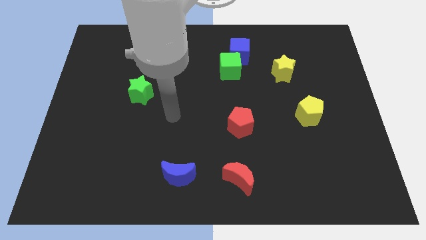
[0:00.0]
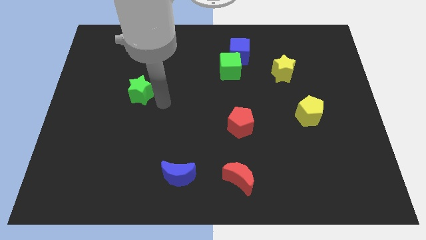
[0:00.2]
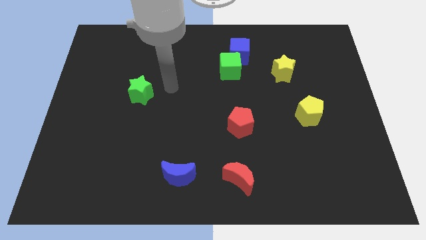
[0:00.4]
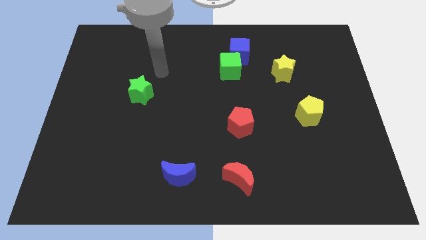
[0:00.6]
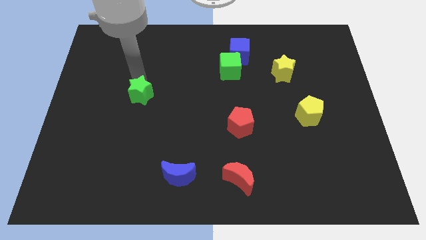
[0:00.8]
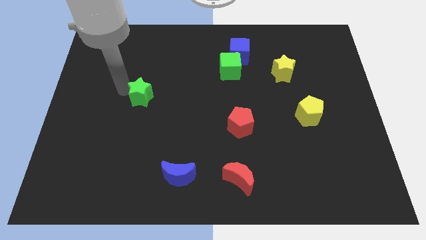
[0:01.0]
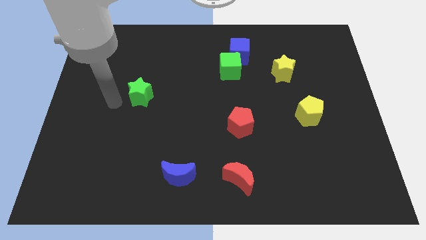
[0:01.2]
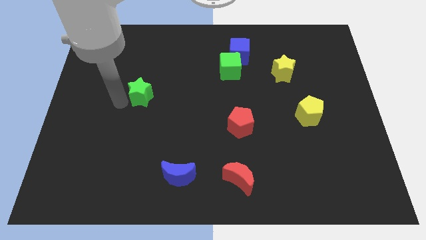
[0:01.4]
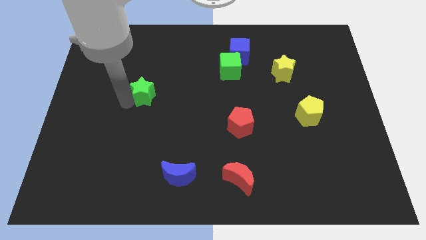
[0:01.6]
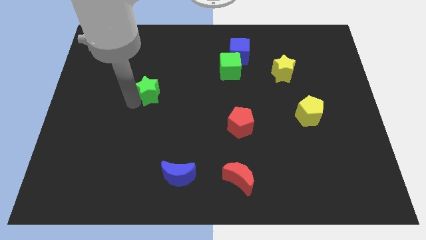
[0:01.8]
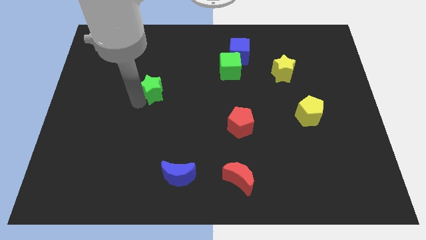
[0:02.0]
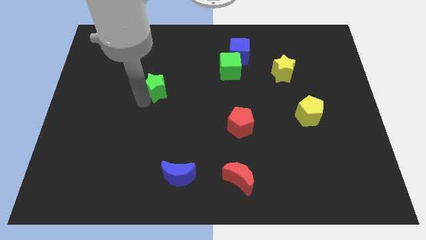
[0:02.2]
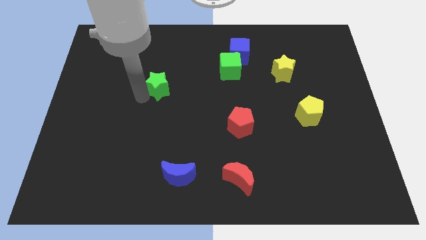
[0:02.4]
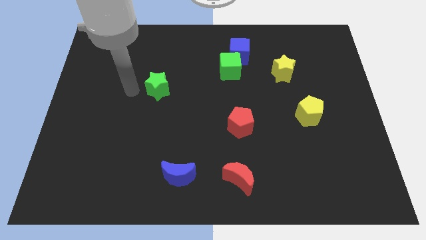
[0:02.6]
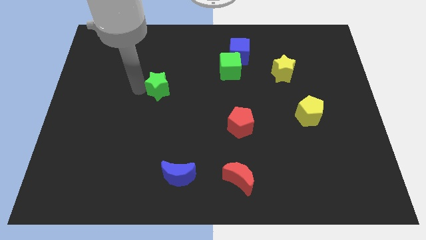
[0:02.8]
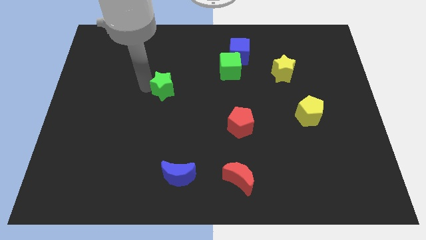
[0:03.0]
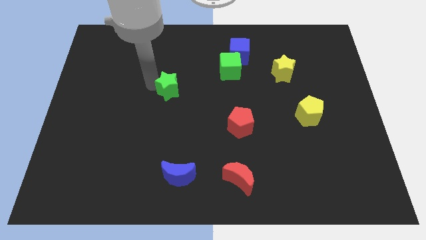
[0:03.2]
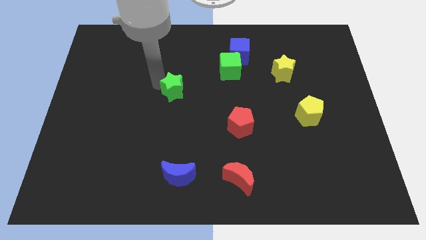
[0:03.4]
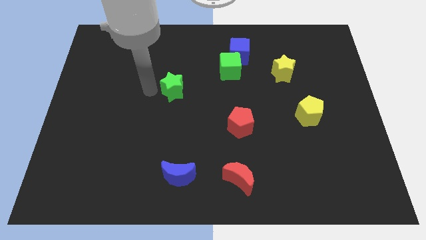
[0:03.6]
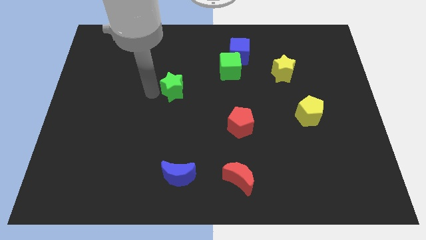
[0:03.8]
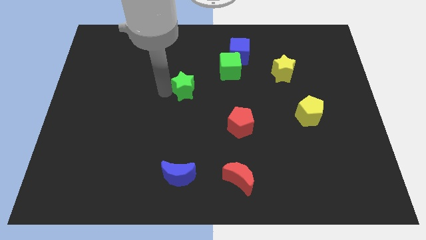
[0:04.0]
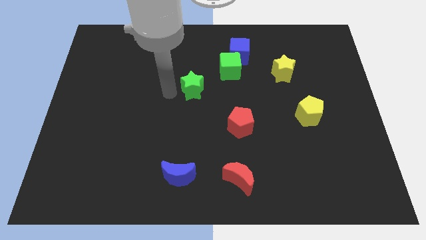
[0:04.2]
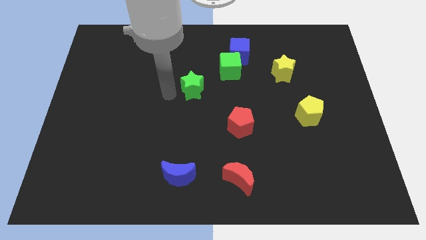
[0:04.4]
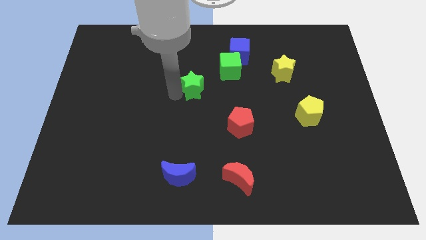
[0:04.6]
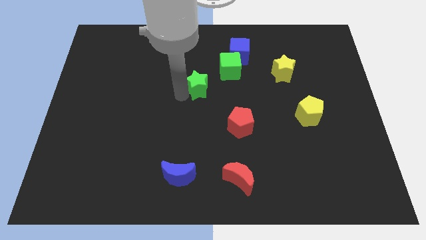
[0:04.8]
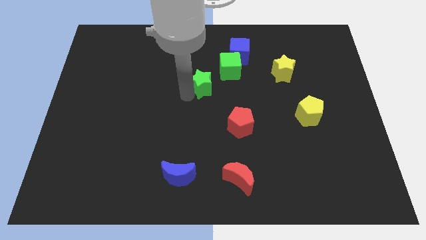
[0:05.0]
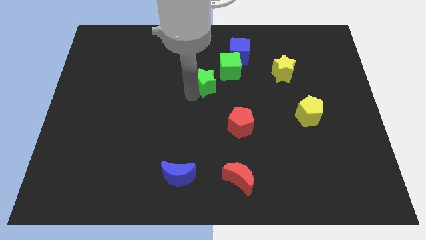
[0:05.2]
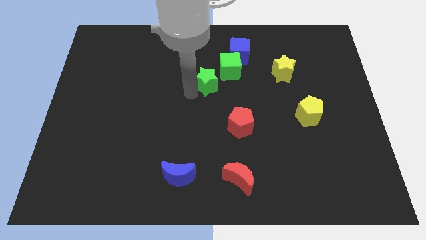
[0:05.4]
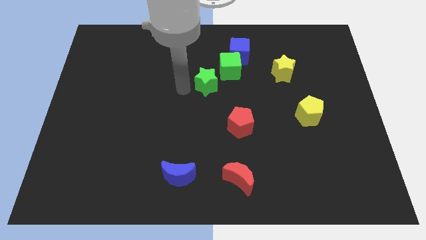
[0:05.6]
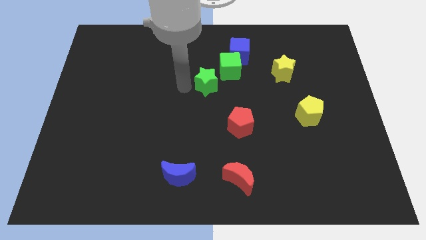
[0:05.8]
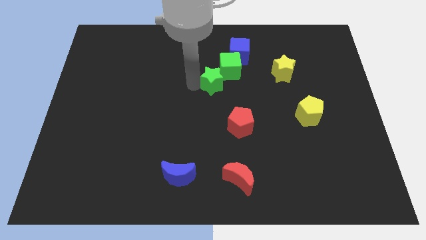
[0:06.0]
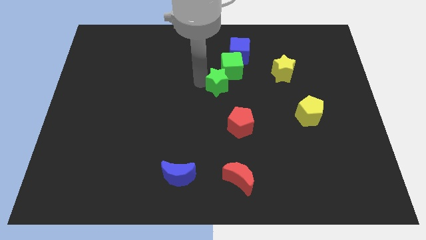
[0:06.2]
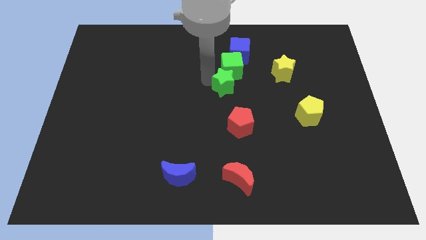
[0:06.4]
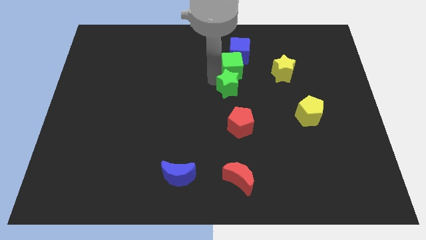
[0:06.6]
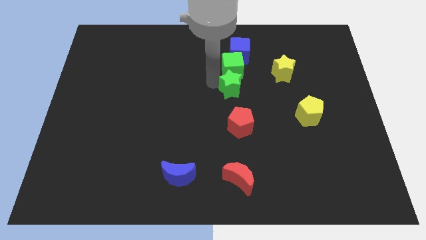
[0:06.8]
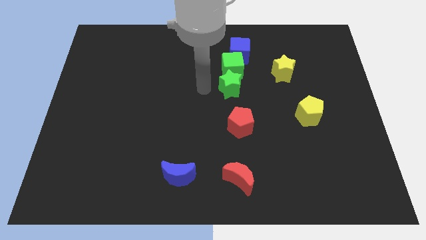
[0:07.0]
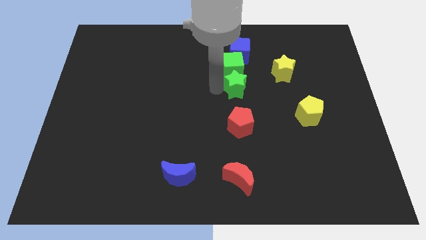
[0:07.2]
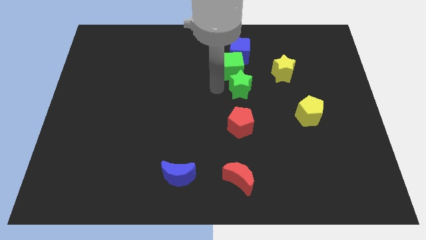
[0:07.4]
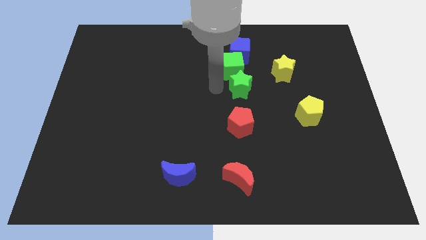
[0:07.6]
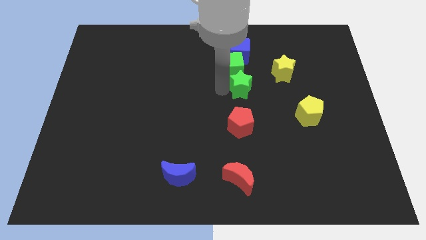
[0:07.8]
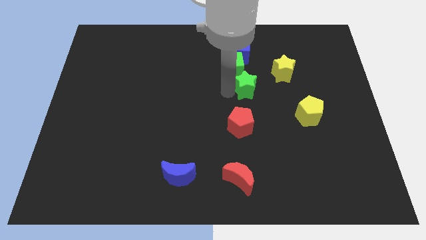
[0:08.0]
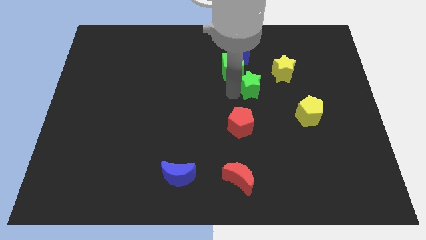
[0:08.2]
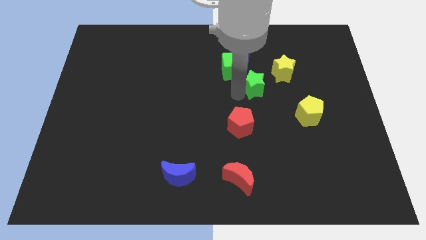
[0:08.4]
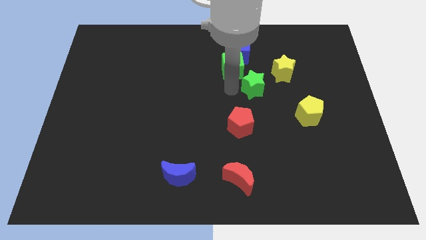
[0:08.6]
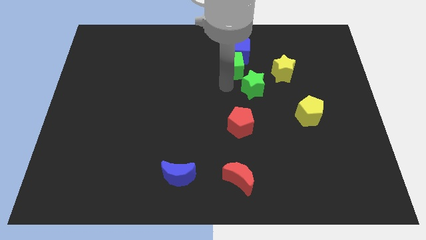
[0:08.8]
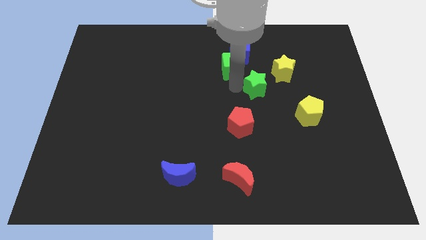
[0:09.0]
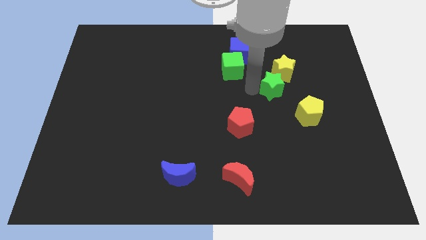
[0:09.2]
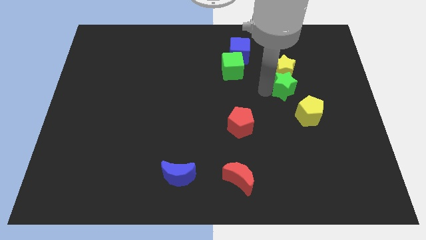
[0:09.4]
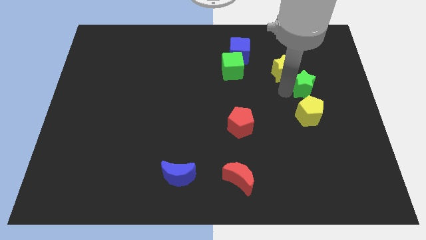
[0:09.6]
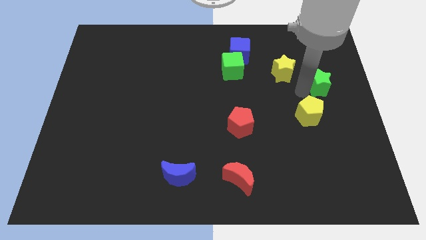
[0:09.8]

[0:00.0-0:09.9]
move the green star right of the yellow star

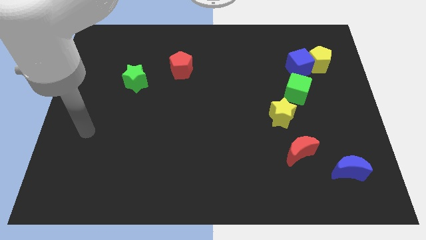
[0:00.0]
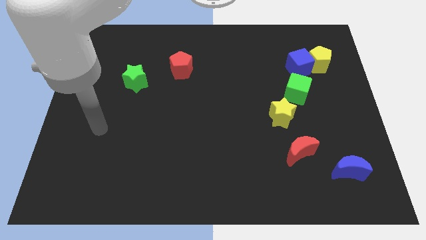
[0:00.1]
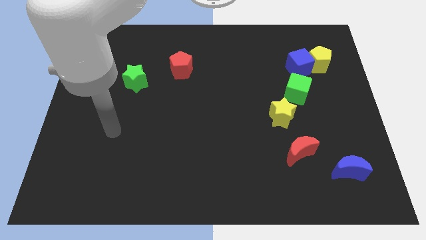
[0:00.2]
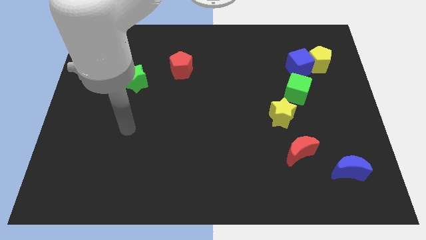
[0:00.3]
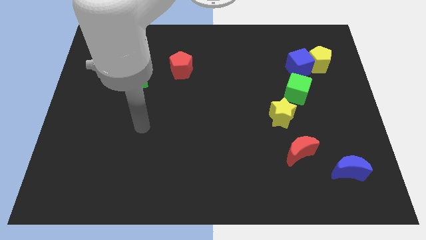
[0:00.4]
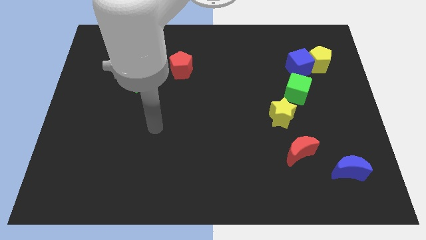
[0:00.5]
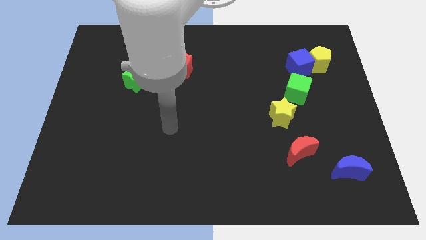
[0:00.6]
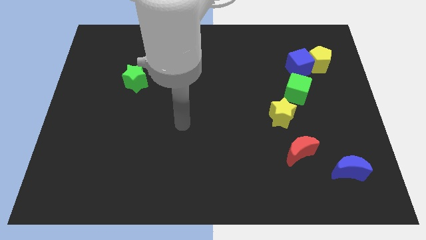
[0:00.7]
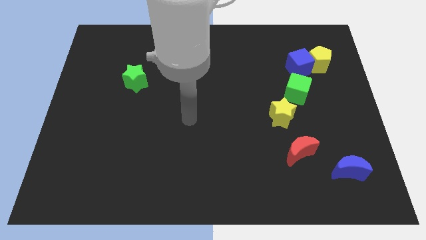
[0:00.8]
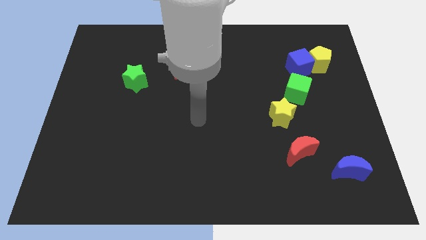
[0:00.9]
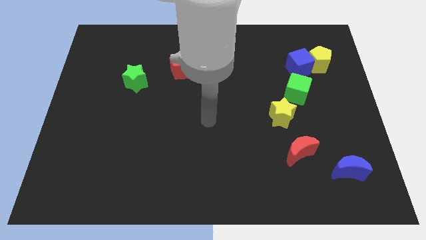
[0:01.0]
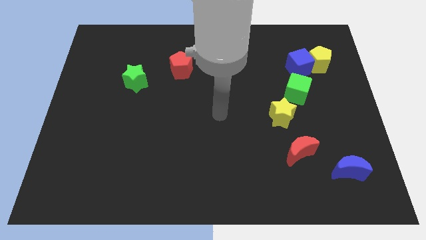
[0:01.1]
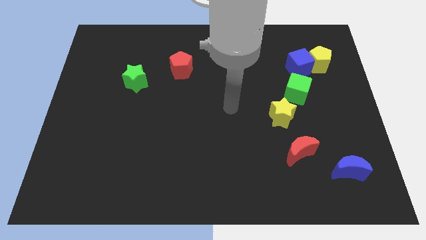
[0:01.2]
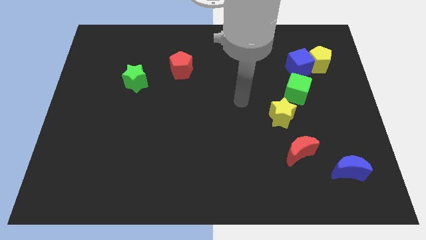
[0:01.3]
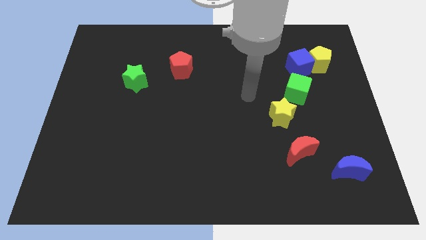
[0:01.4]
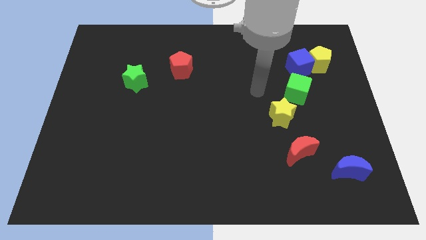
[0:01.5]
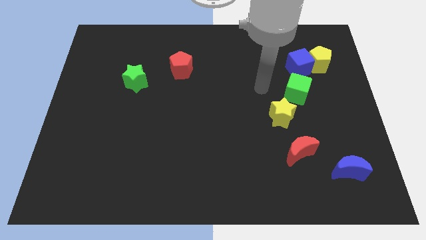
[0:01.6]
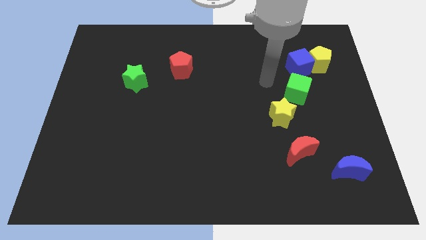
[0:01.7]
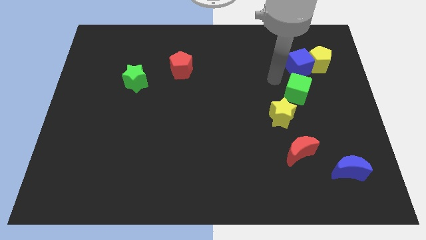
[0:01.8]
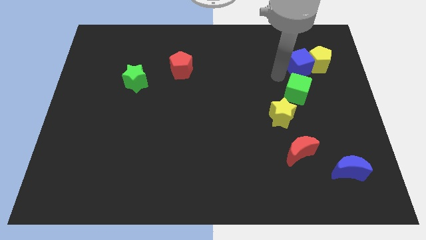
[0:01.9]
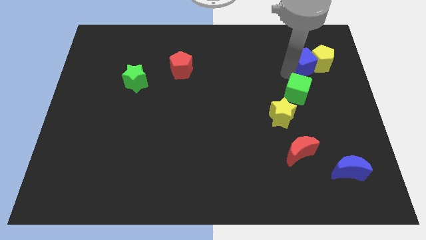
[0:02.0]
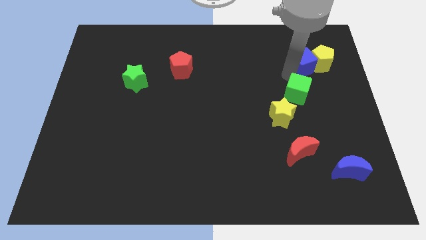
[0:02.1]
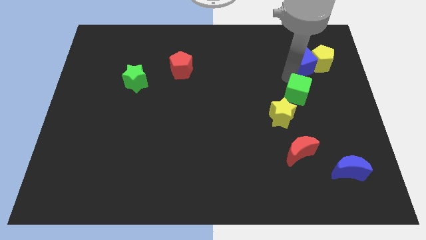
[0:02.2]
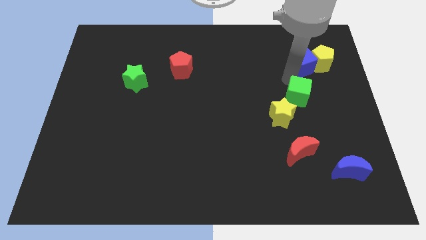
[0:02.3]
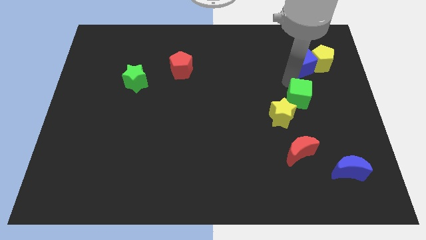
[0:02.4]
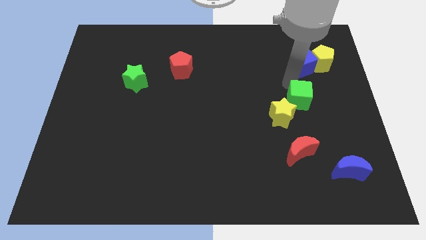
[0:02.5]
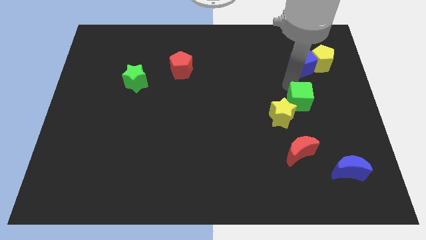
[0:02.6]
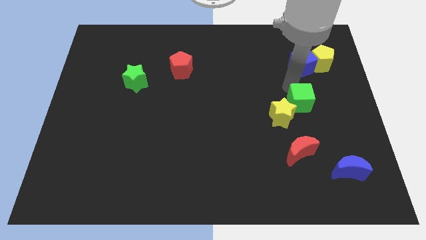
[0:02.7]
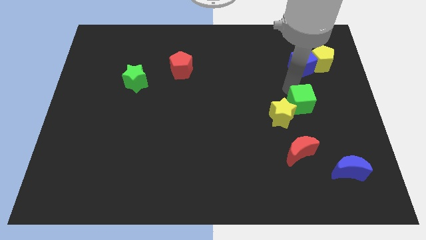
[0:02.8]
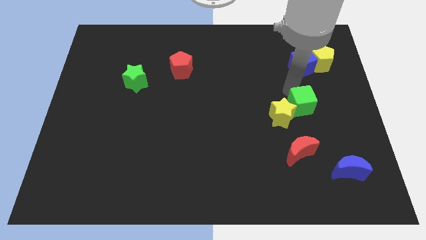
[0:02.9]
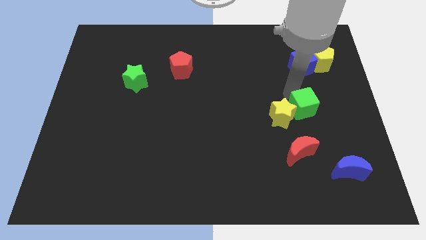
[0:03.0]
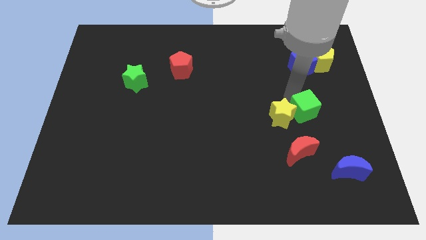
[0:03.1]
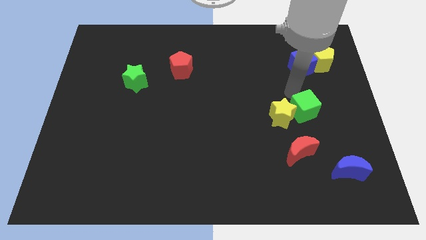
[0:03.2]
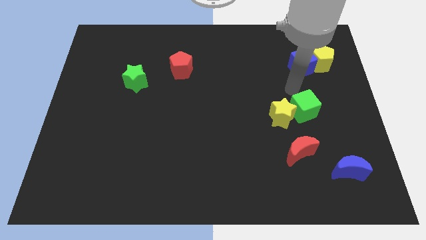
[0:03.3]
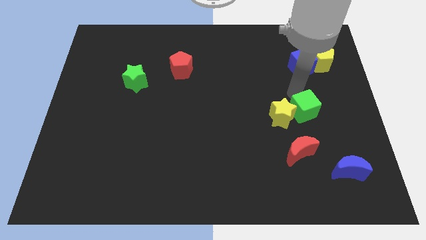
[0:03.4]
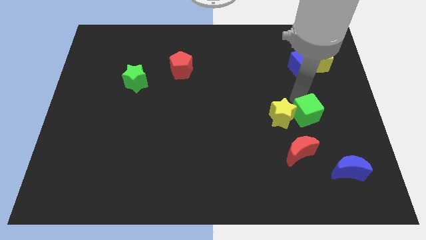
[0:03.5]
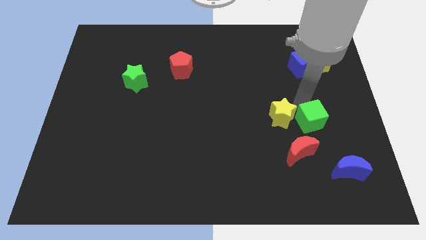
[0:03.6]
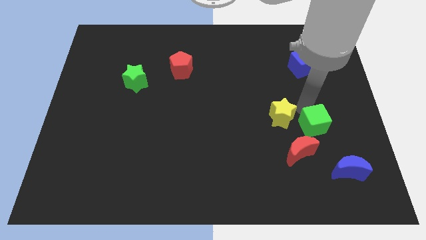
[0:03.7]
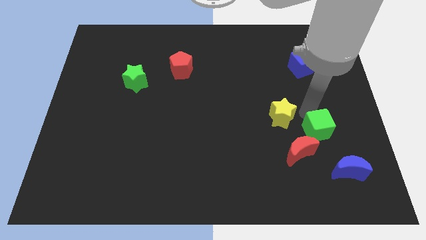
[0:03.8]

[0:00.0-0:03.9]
slide the green cube to the top left of the blue moon
